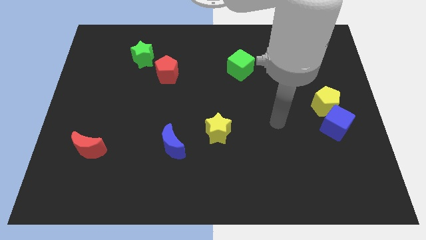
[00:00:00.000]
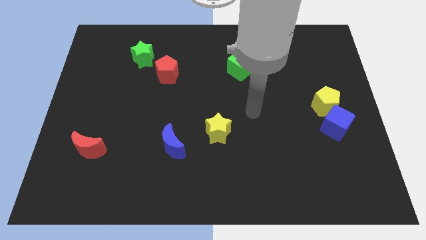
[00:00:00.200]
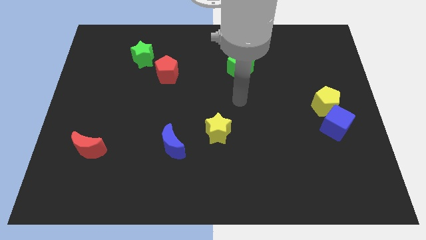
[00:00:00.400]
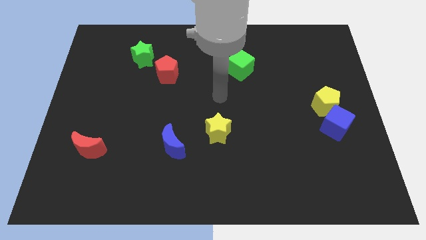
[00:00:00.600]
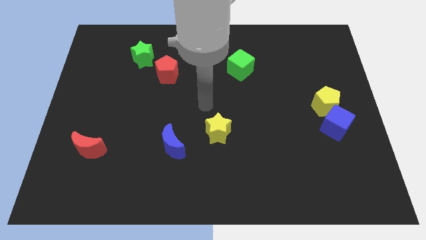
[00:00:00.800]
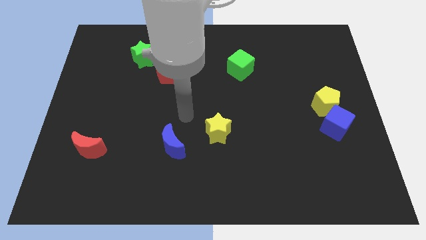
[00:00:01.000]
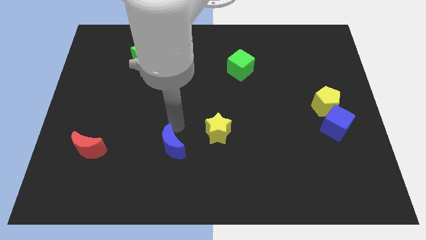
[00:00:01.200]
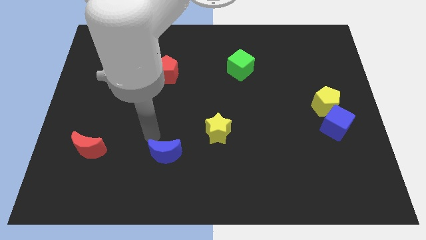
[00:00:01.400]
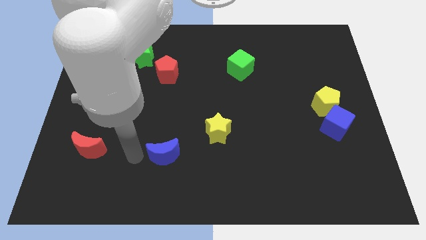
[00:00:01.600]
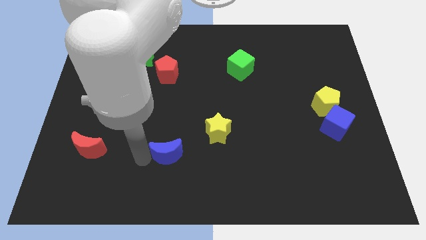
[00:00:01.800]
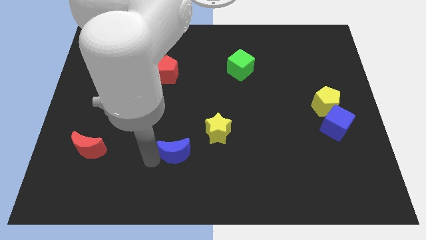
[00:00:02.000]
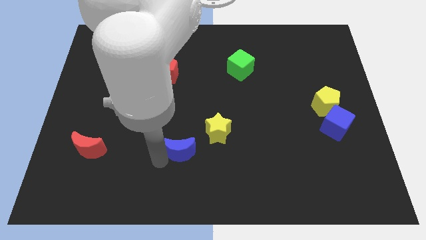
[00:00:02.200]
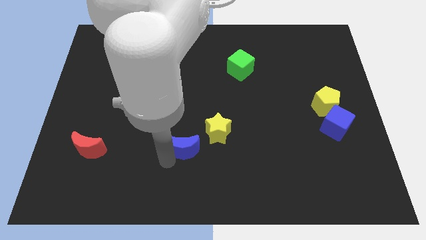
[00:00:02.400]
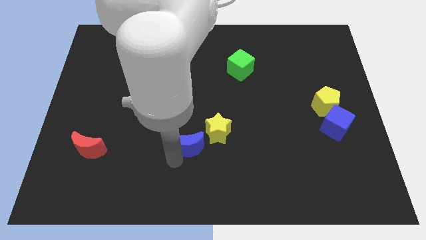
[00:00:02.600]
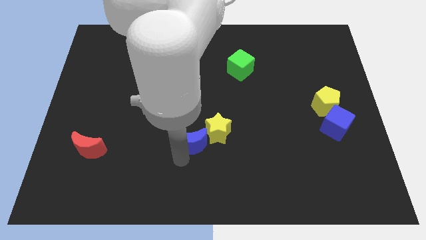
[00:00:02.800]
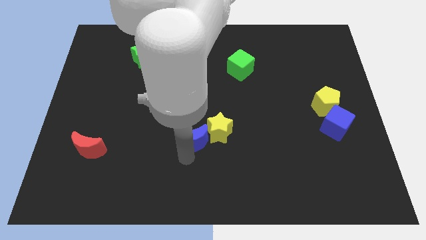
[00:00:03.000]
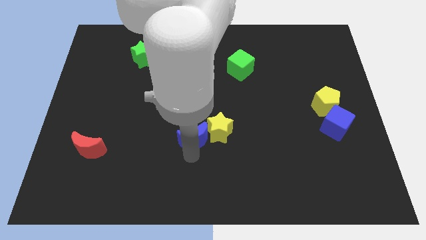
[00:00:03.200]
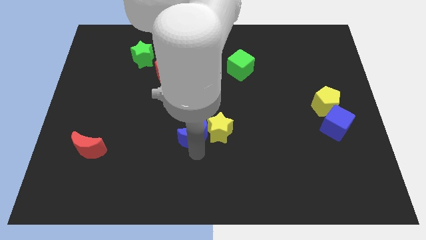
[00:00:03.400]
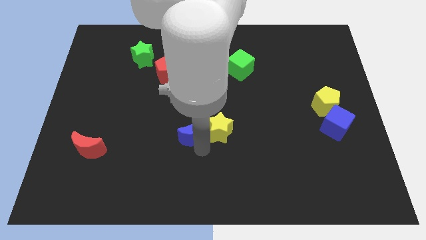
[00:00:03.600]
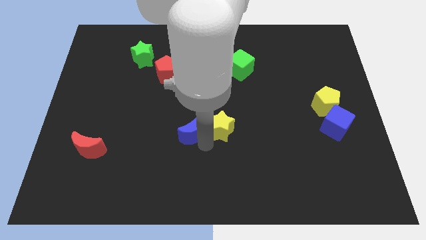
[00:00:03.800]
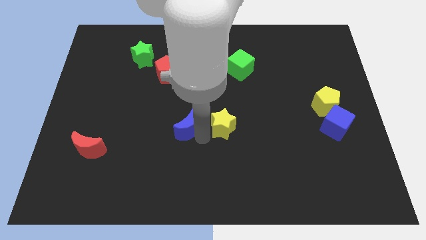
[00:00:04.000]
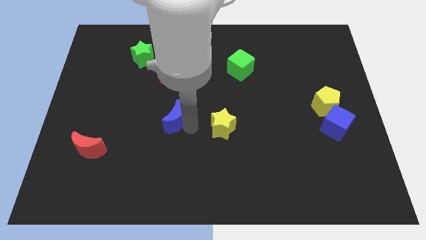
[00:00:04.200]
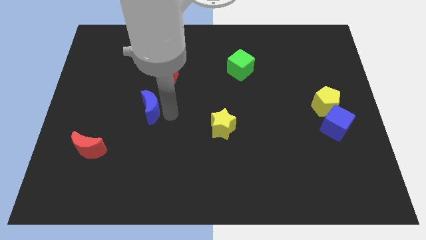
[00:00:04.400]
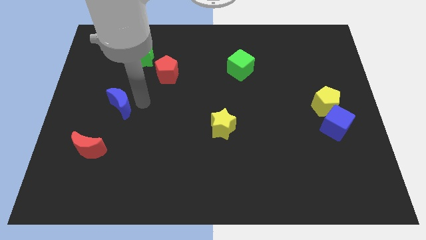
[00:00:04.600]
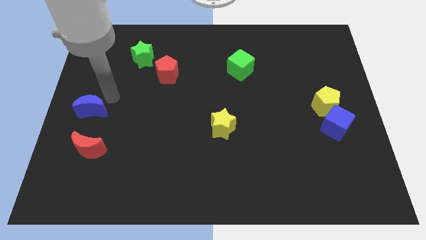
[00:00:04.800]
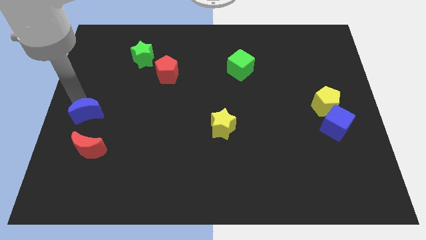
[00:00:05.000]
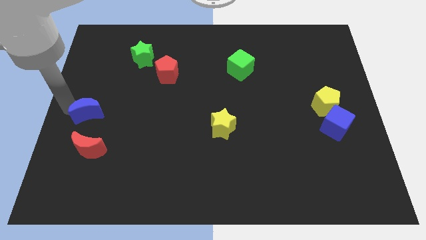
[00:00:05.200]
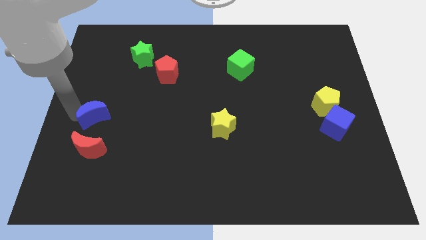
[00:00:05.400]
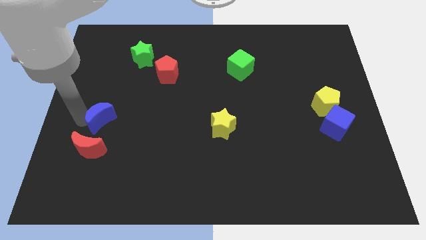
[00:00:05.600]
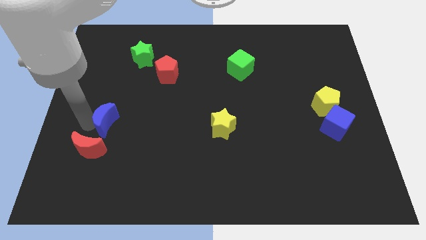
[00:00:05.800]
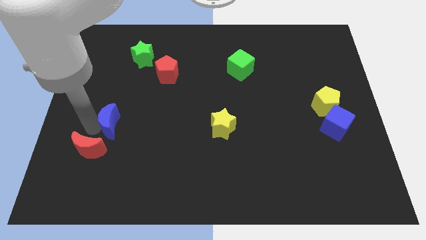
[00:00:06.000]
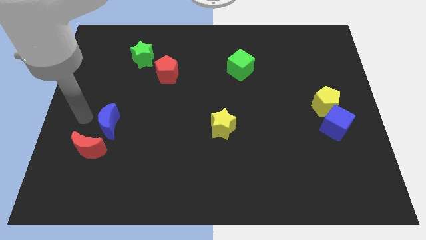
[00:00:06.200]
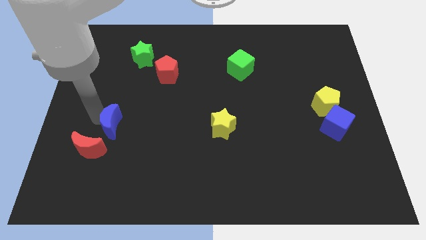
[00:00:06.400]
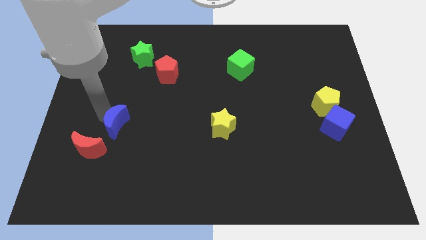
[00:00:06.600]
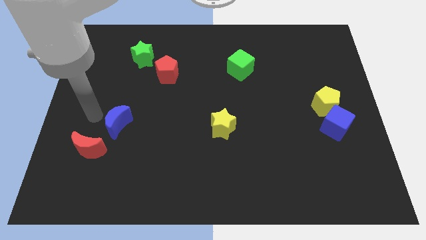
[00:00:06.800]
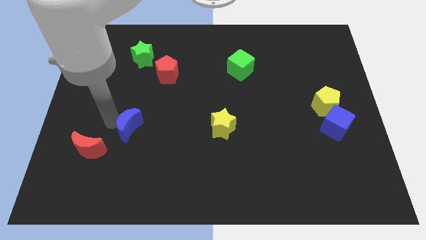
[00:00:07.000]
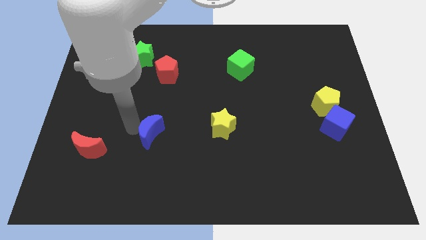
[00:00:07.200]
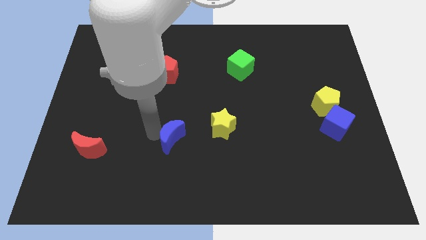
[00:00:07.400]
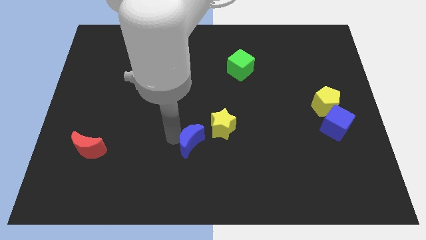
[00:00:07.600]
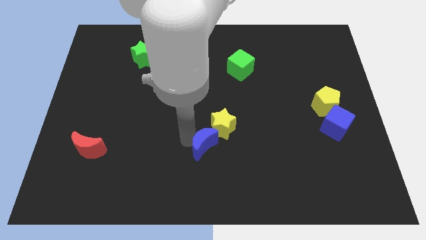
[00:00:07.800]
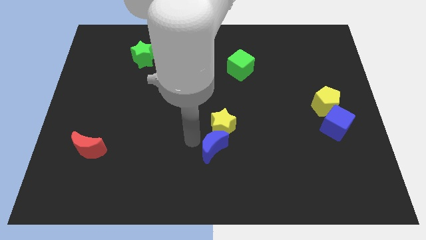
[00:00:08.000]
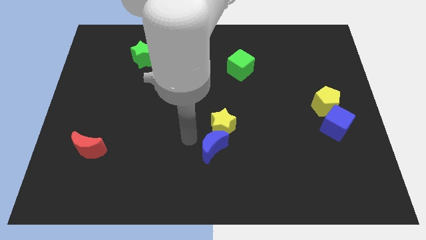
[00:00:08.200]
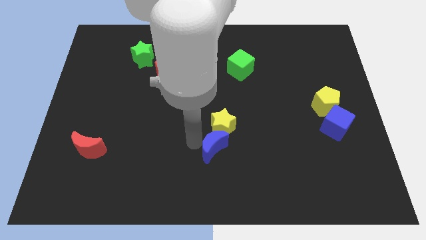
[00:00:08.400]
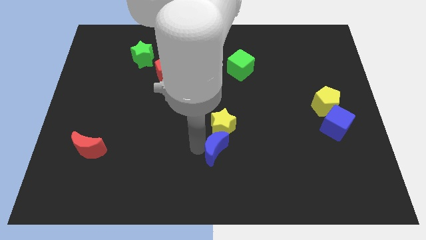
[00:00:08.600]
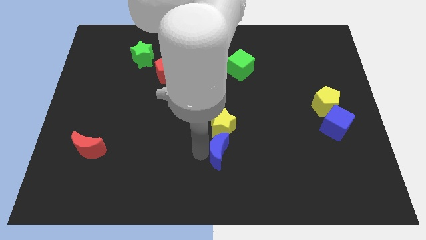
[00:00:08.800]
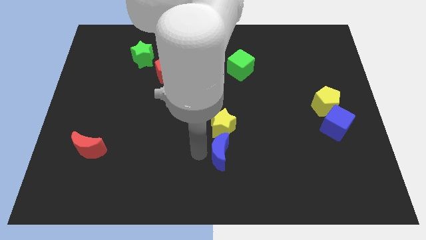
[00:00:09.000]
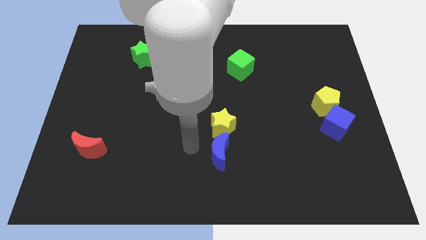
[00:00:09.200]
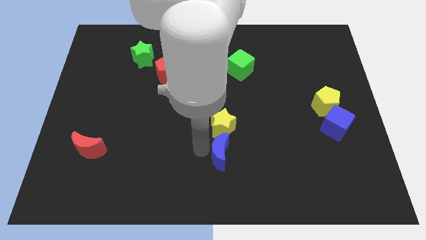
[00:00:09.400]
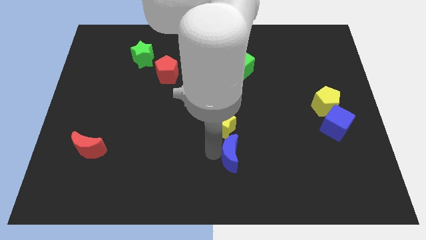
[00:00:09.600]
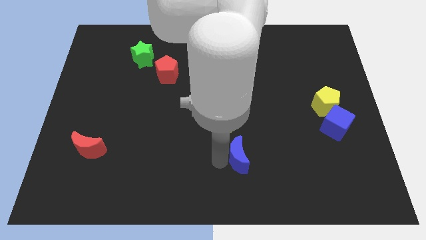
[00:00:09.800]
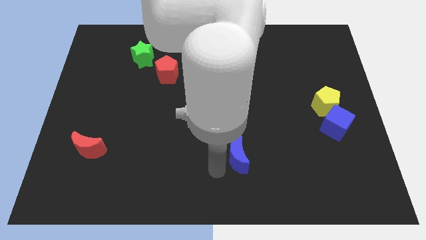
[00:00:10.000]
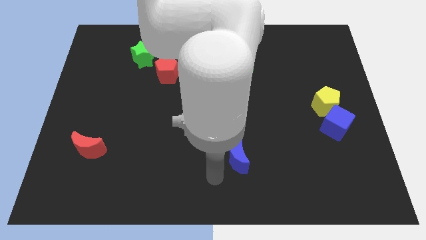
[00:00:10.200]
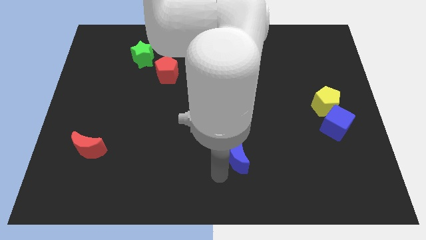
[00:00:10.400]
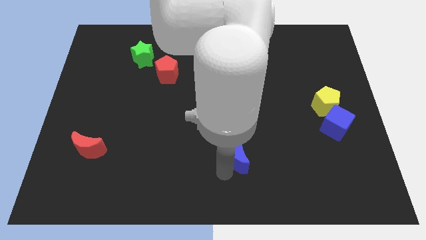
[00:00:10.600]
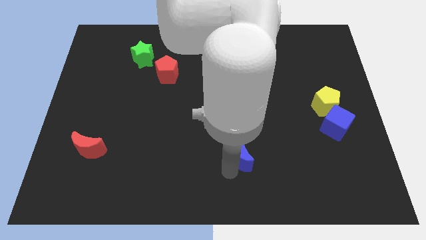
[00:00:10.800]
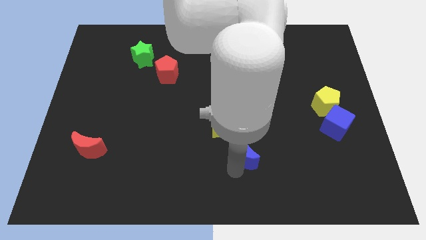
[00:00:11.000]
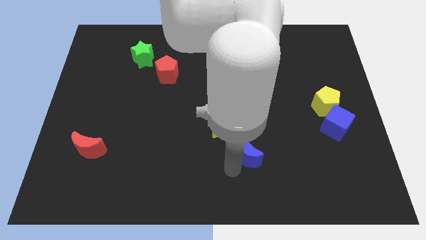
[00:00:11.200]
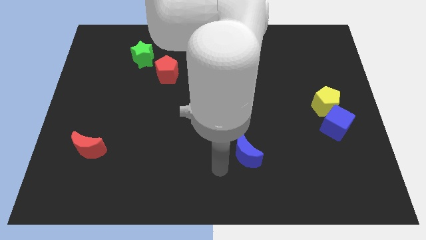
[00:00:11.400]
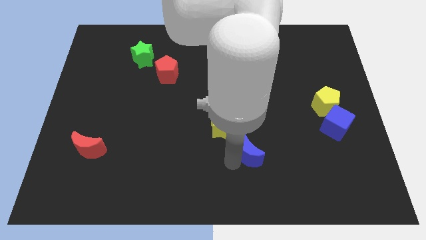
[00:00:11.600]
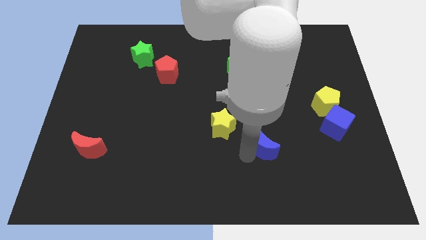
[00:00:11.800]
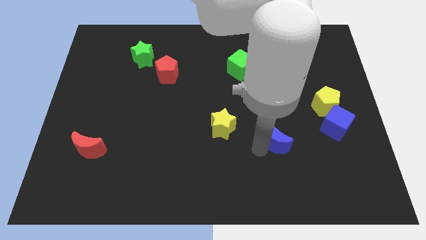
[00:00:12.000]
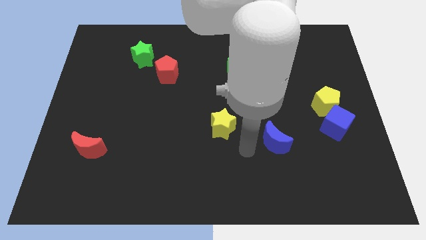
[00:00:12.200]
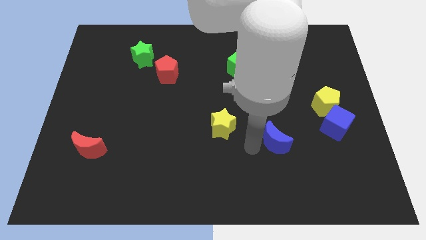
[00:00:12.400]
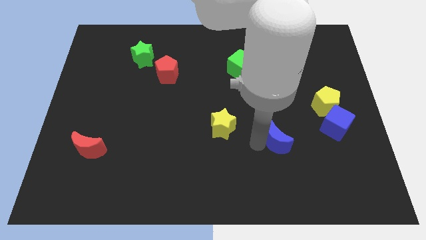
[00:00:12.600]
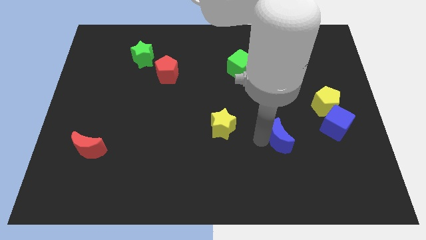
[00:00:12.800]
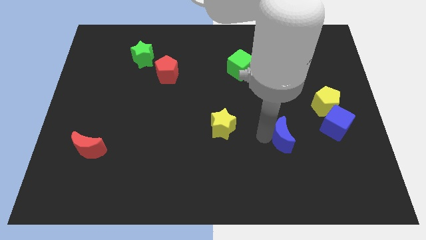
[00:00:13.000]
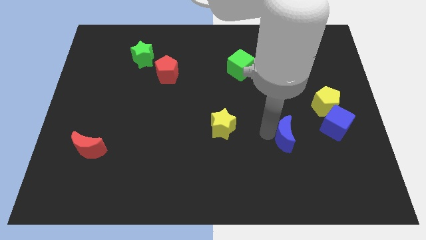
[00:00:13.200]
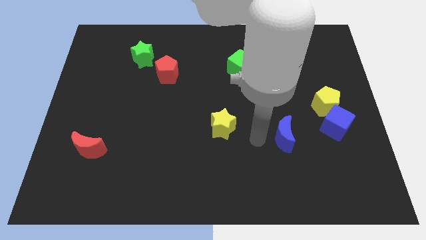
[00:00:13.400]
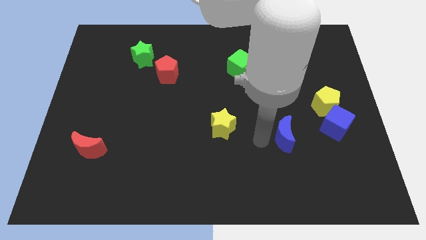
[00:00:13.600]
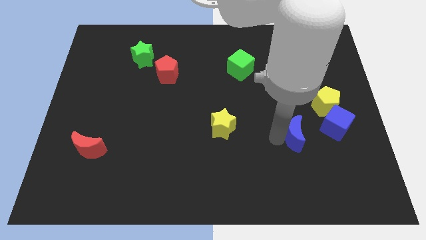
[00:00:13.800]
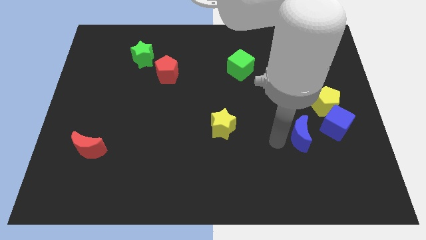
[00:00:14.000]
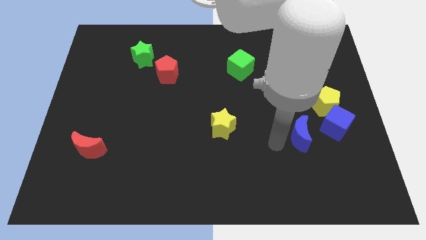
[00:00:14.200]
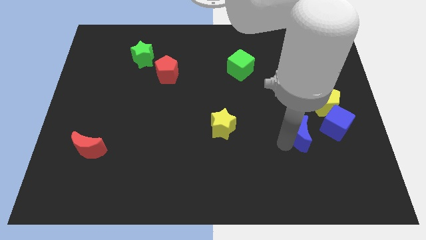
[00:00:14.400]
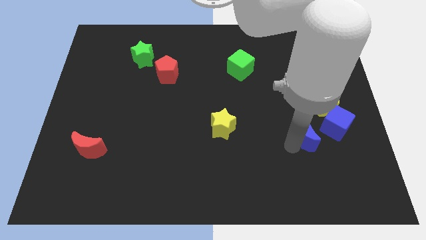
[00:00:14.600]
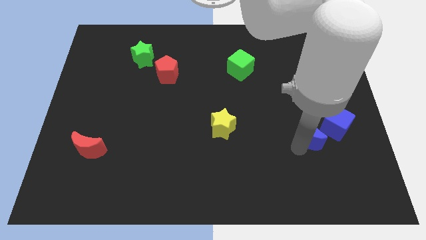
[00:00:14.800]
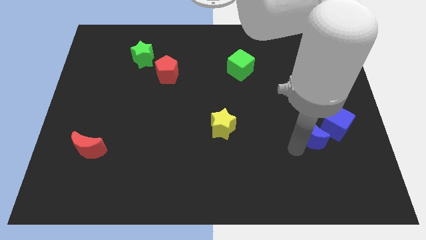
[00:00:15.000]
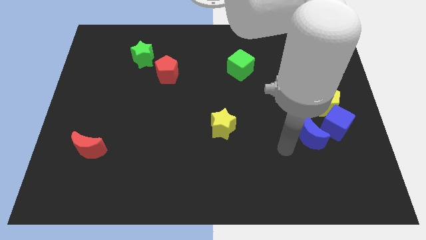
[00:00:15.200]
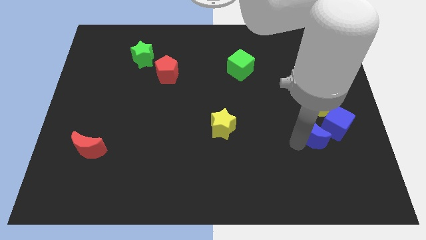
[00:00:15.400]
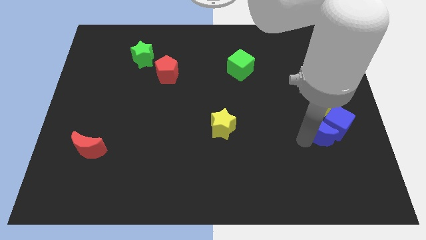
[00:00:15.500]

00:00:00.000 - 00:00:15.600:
move the blue moon close to the blue cube
